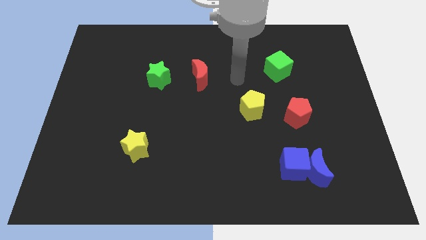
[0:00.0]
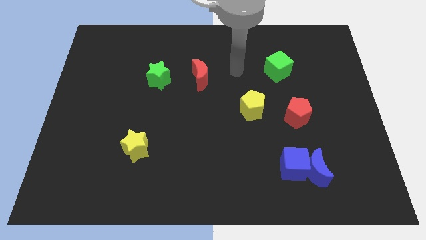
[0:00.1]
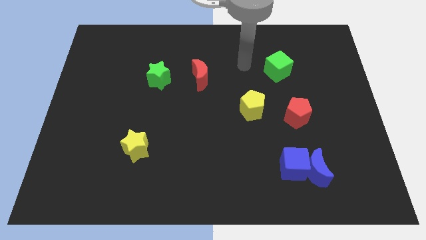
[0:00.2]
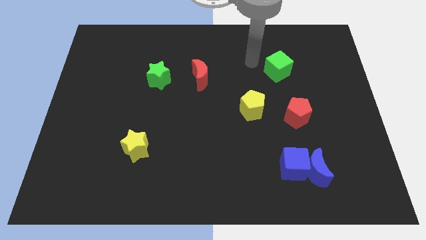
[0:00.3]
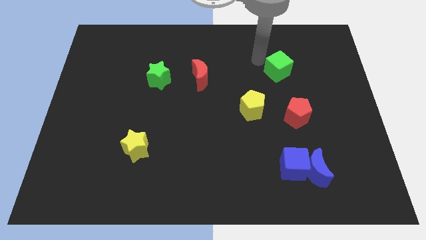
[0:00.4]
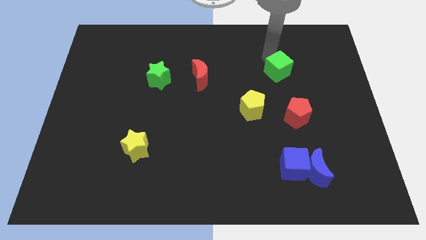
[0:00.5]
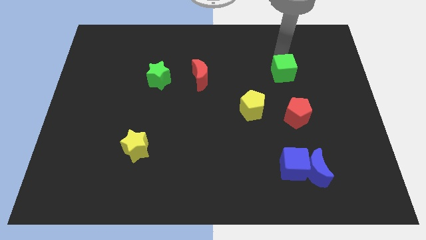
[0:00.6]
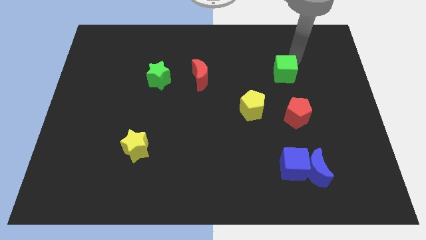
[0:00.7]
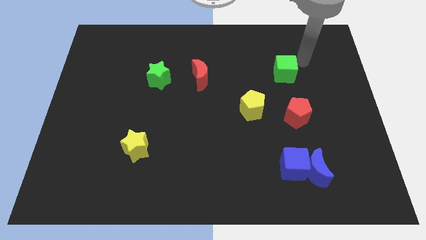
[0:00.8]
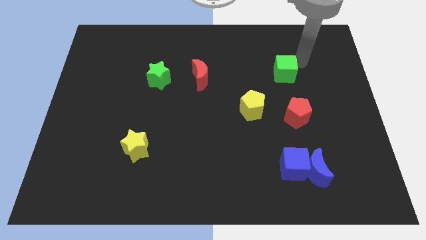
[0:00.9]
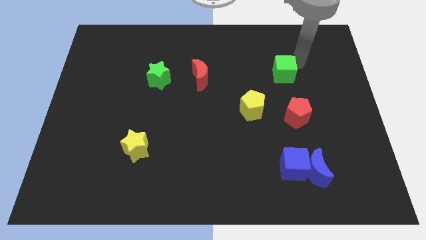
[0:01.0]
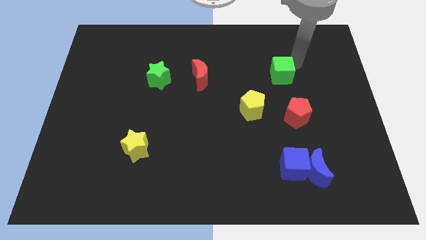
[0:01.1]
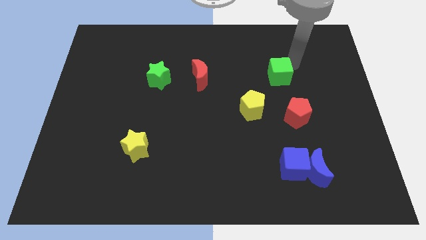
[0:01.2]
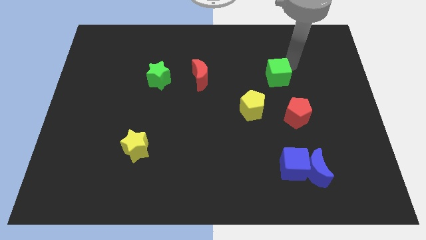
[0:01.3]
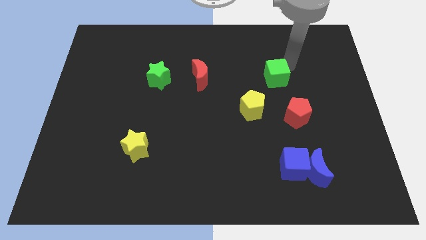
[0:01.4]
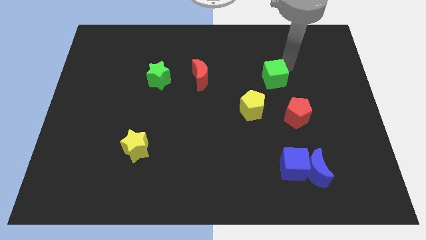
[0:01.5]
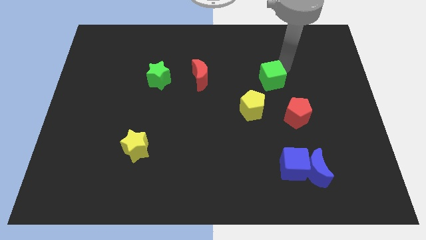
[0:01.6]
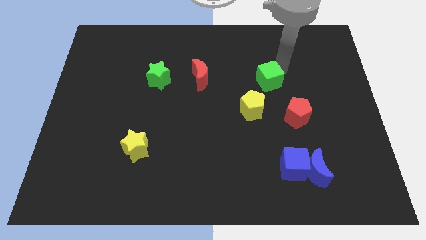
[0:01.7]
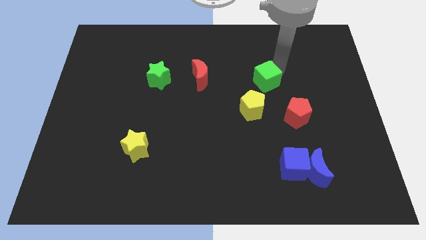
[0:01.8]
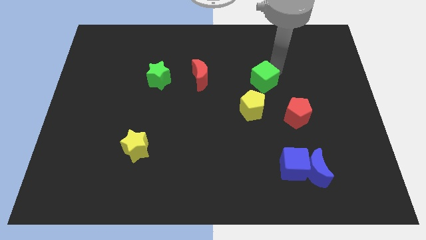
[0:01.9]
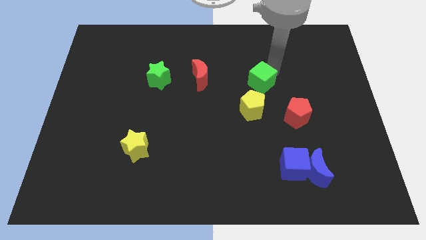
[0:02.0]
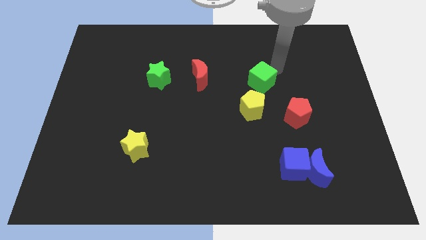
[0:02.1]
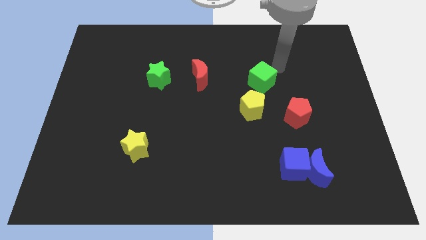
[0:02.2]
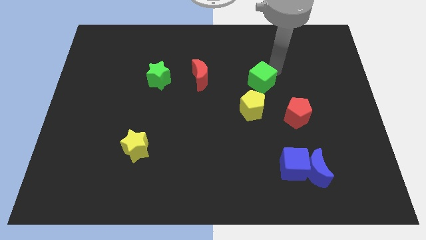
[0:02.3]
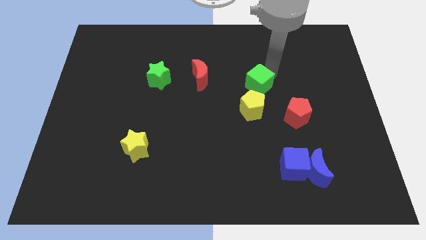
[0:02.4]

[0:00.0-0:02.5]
slightly push the green cube down and then left

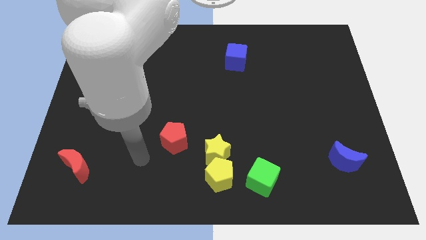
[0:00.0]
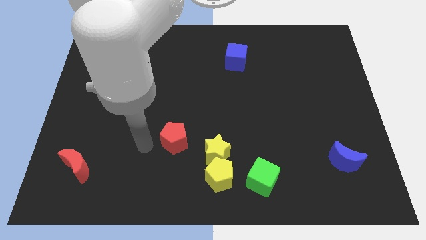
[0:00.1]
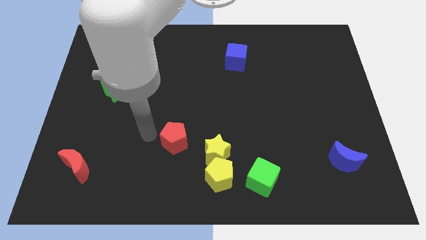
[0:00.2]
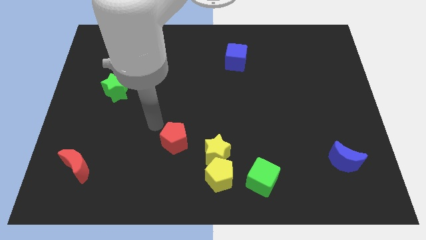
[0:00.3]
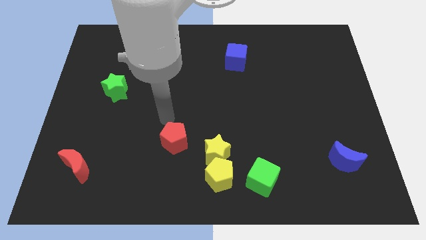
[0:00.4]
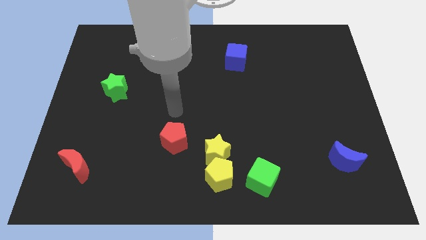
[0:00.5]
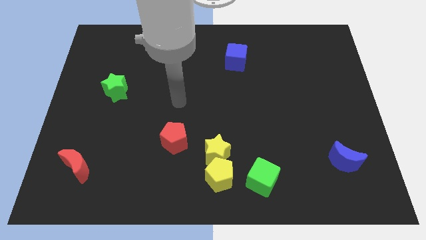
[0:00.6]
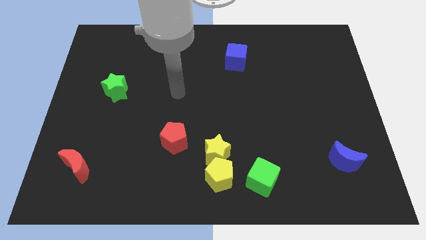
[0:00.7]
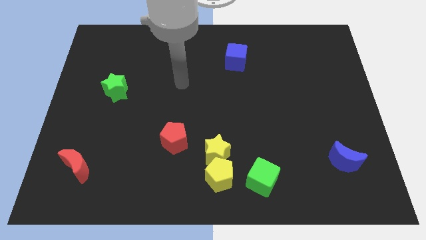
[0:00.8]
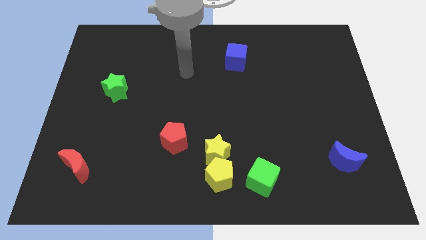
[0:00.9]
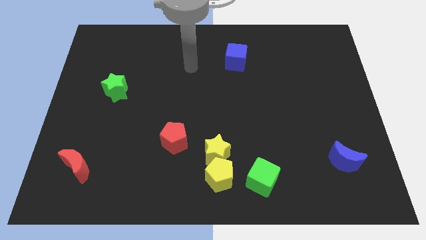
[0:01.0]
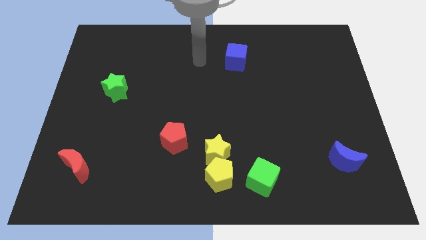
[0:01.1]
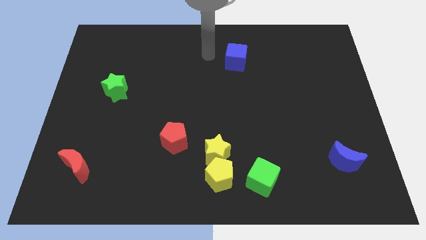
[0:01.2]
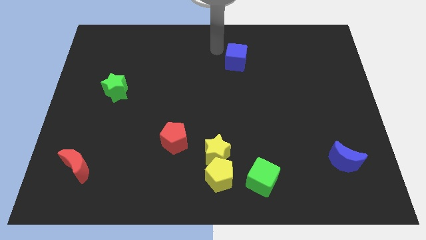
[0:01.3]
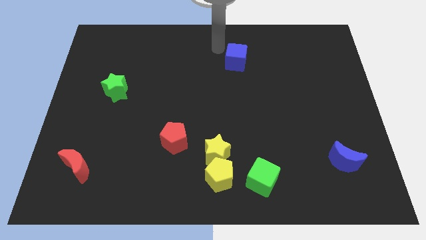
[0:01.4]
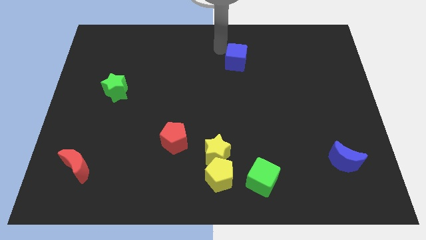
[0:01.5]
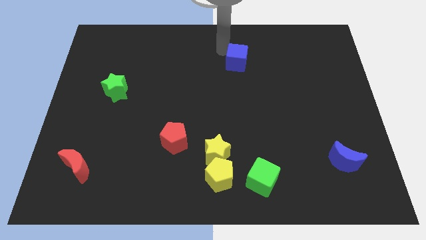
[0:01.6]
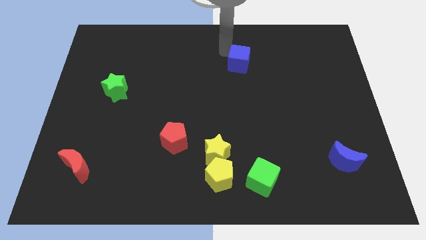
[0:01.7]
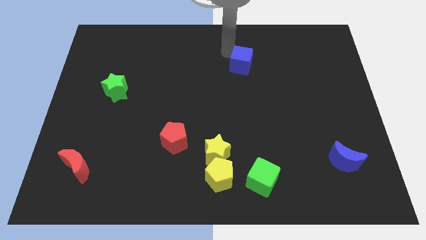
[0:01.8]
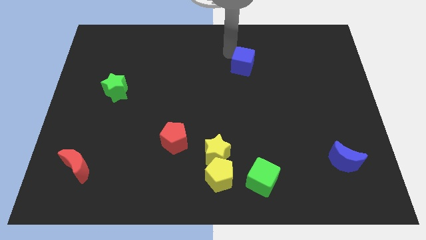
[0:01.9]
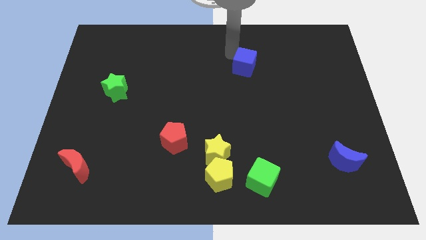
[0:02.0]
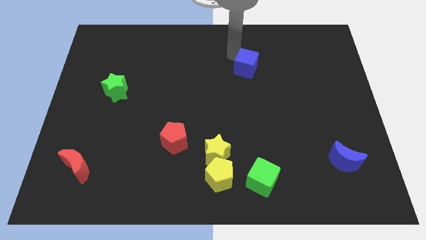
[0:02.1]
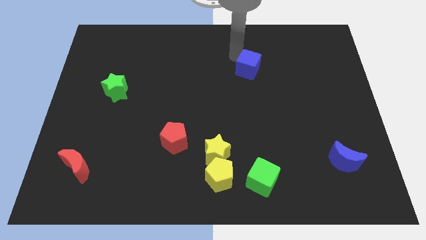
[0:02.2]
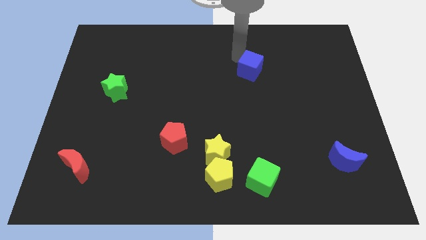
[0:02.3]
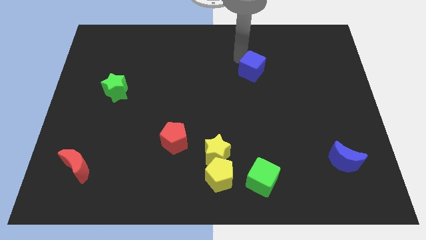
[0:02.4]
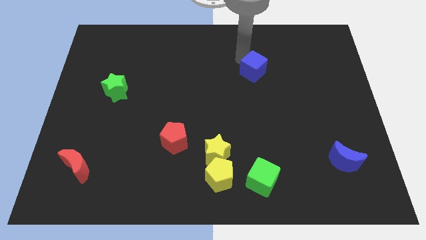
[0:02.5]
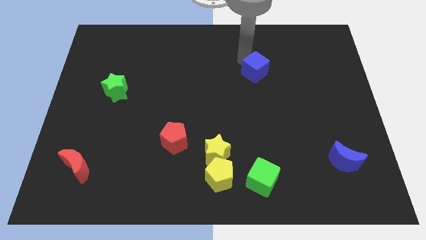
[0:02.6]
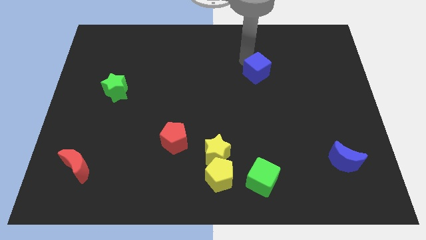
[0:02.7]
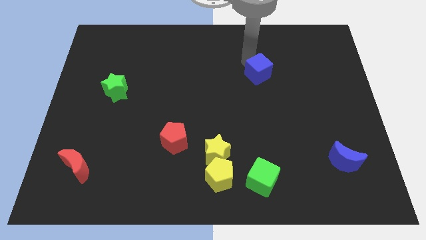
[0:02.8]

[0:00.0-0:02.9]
slide the blue cube down and to the right diagonally a little

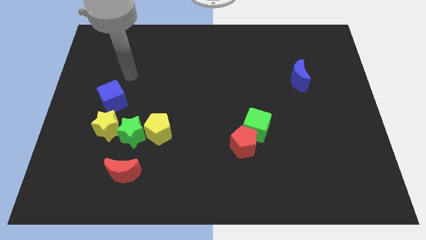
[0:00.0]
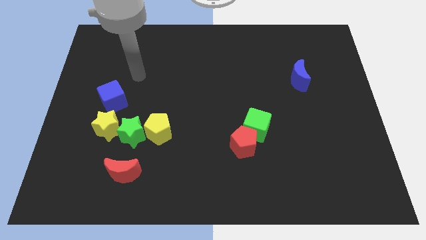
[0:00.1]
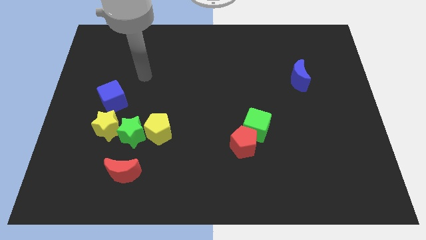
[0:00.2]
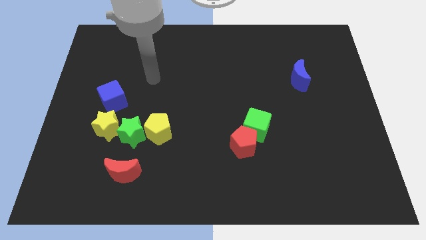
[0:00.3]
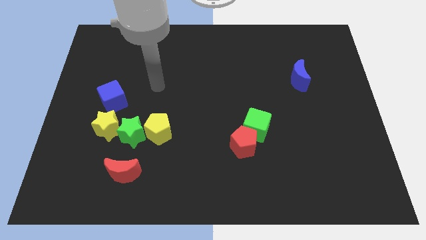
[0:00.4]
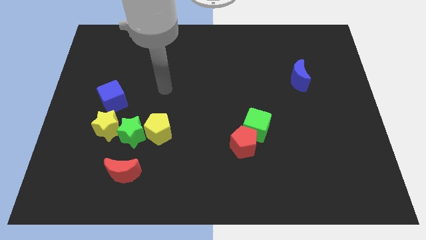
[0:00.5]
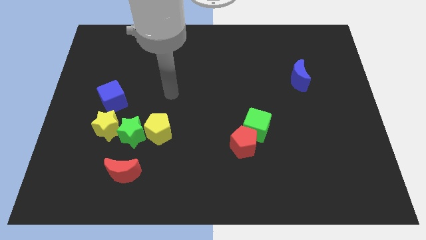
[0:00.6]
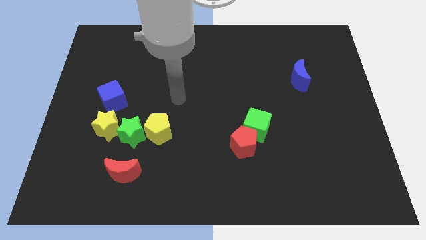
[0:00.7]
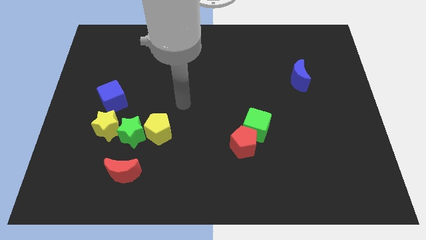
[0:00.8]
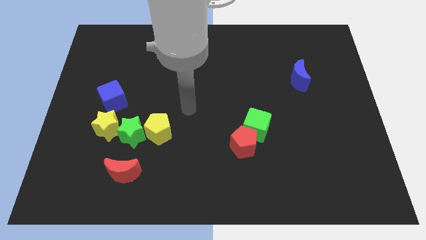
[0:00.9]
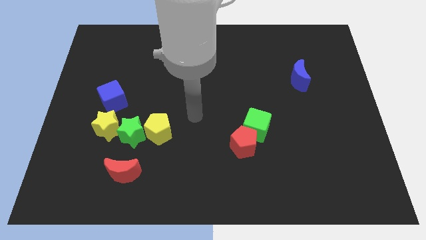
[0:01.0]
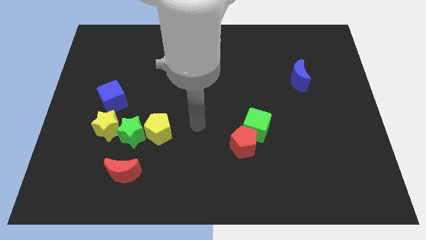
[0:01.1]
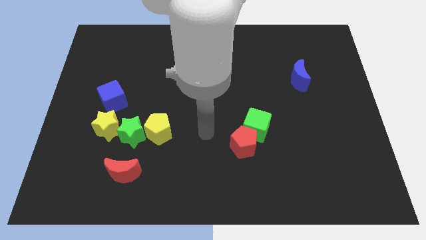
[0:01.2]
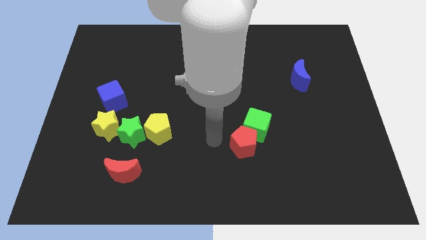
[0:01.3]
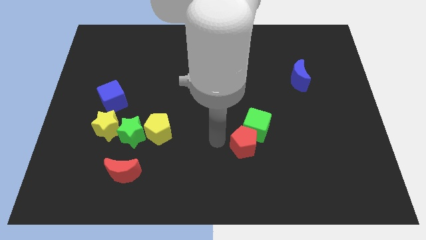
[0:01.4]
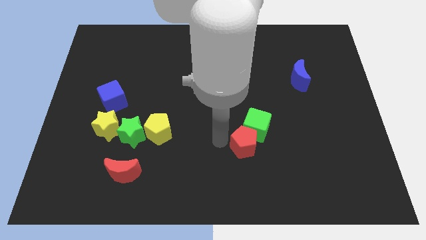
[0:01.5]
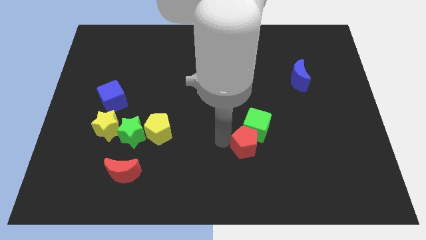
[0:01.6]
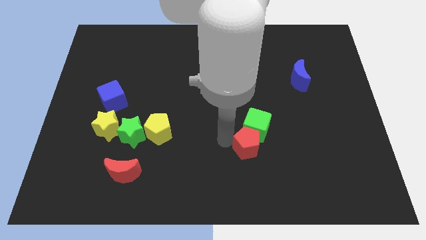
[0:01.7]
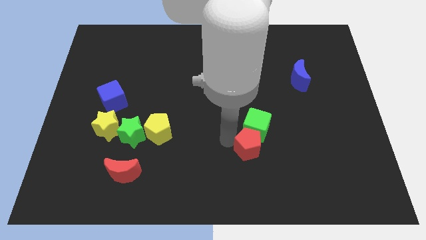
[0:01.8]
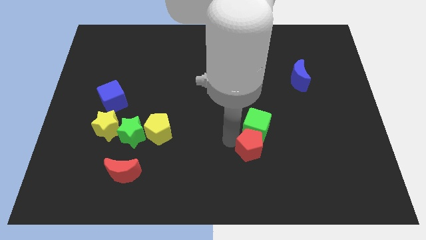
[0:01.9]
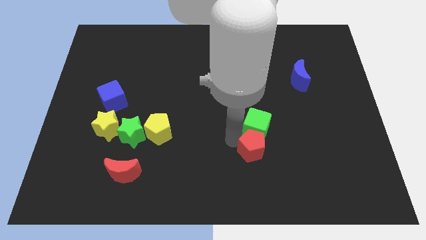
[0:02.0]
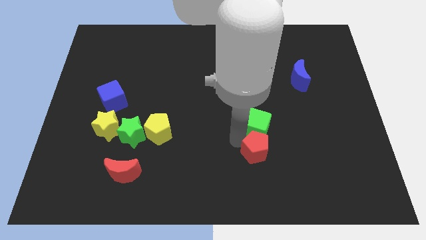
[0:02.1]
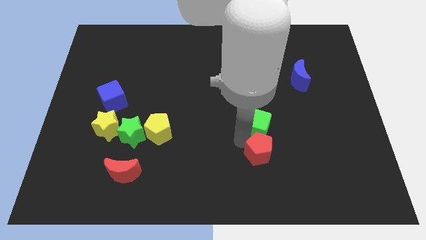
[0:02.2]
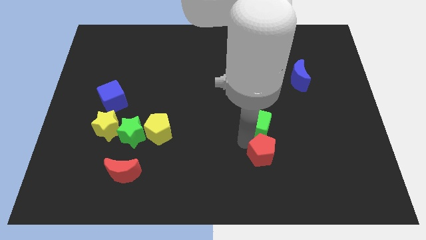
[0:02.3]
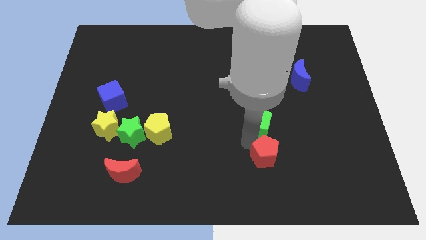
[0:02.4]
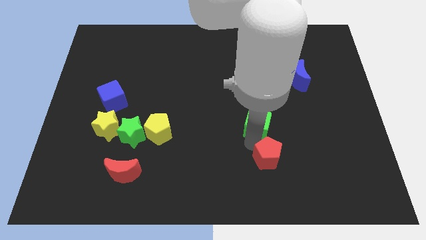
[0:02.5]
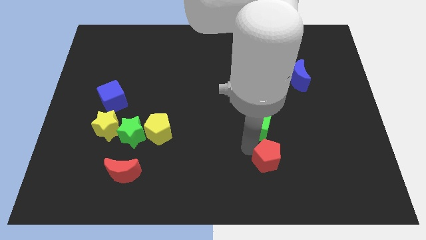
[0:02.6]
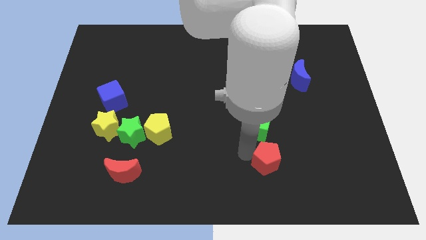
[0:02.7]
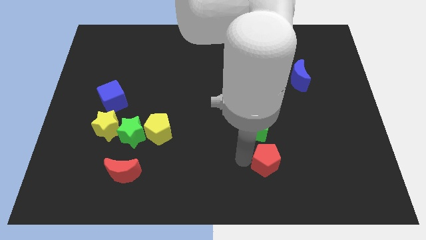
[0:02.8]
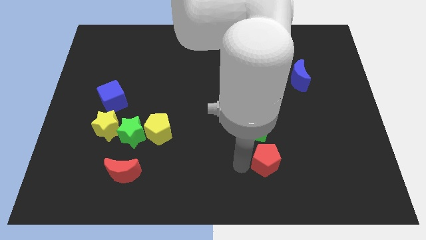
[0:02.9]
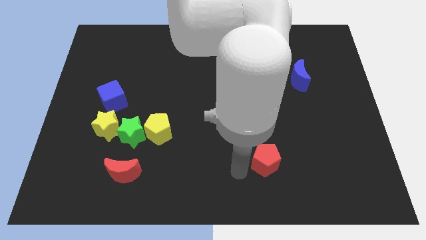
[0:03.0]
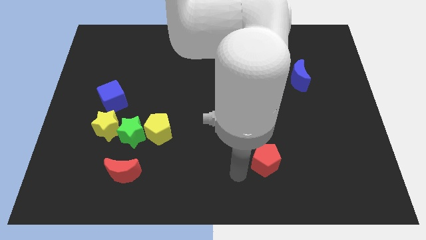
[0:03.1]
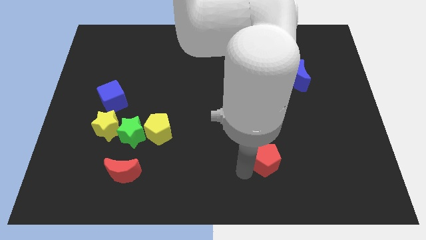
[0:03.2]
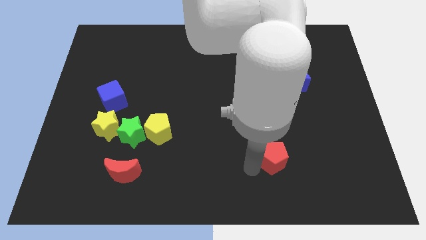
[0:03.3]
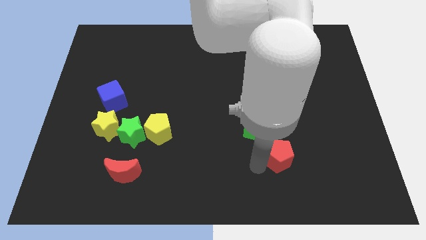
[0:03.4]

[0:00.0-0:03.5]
move the red pentagon right somewhat
